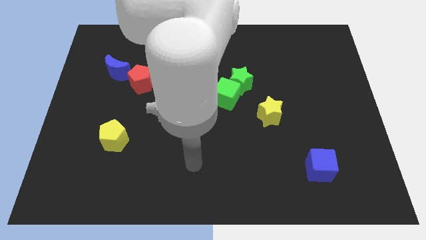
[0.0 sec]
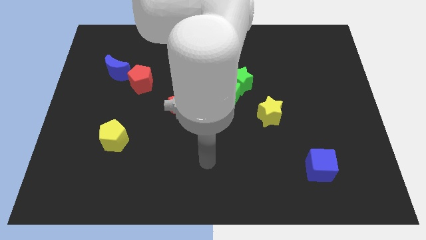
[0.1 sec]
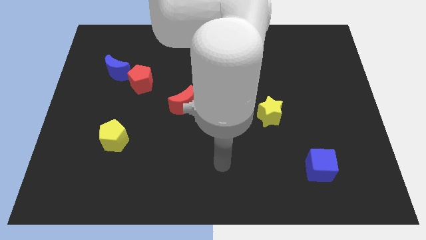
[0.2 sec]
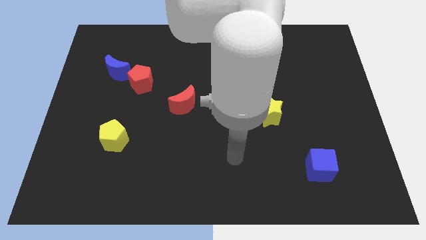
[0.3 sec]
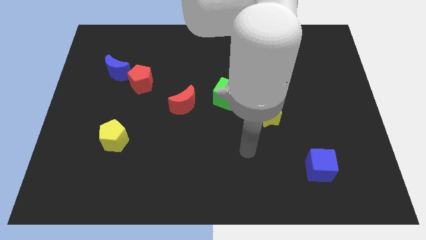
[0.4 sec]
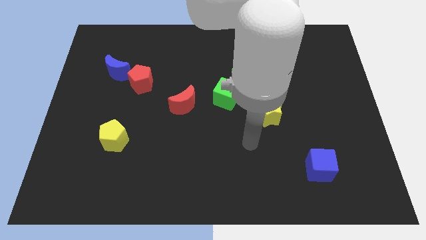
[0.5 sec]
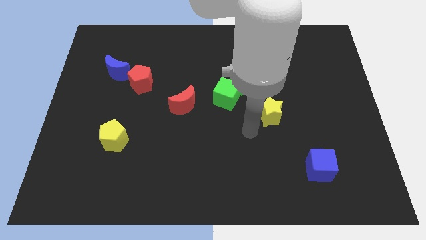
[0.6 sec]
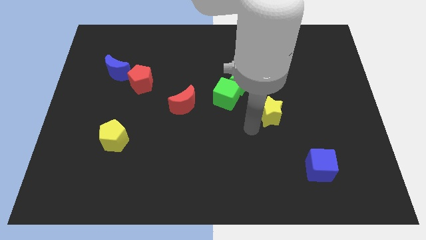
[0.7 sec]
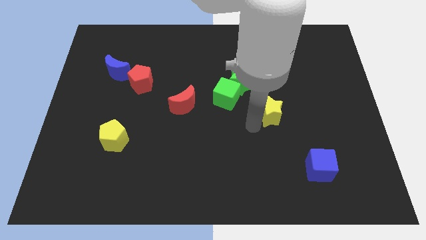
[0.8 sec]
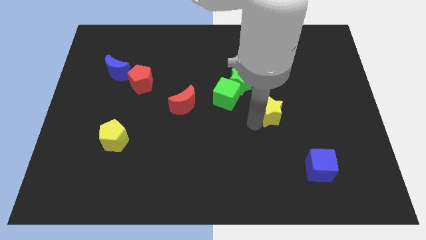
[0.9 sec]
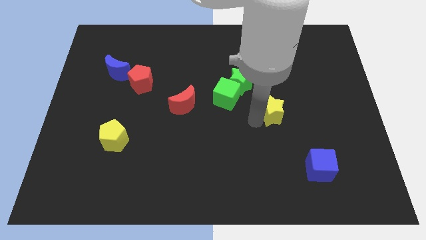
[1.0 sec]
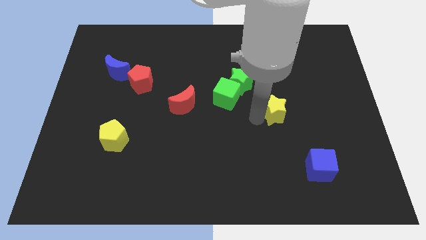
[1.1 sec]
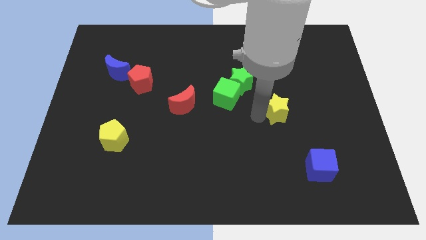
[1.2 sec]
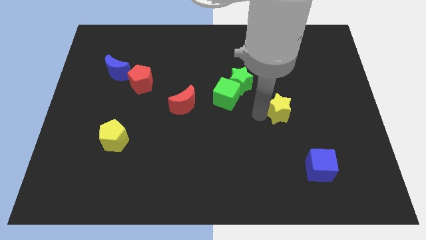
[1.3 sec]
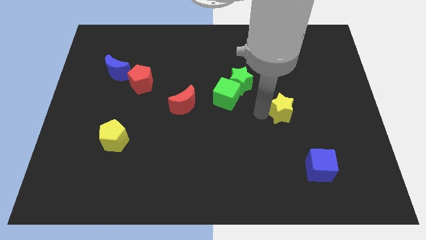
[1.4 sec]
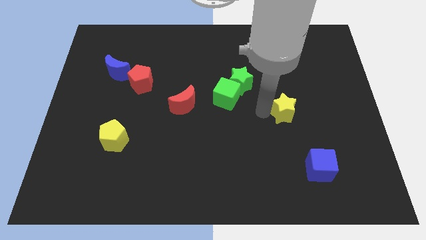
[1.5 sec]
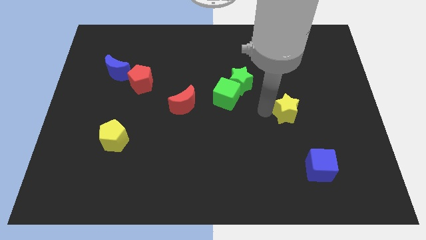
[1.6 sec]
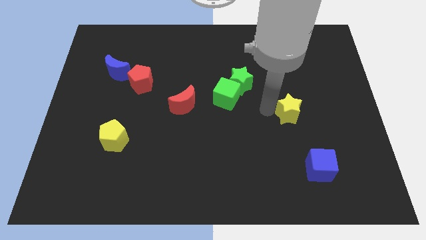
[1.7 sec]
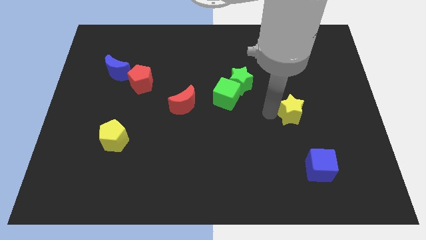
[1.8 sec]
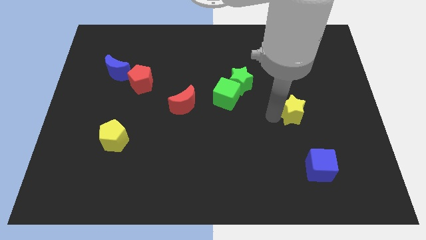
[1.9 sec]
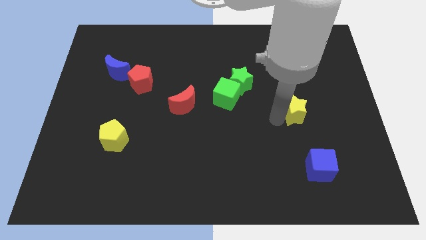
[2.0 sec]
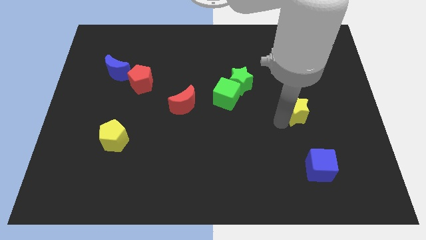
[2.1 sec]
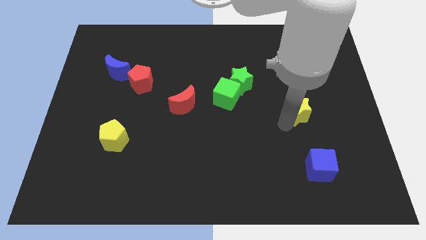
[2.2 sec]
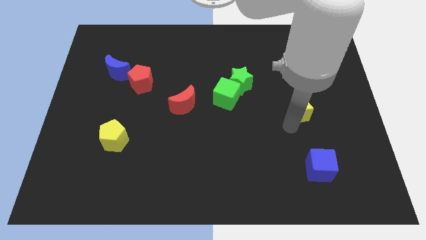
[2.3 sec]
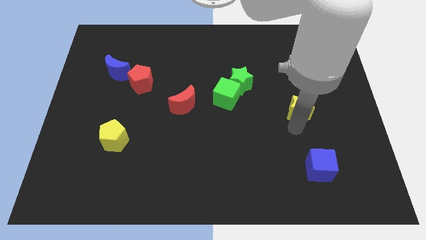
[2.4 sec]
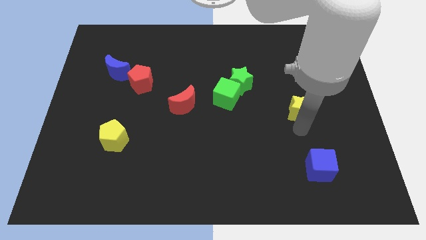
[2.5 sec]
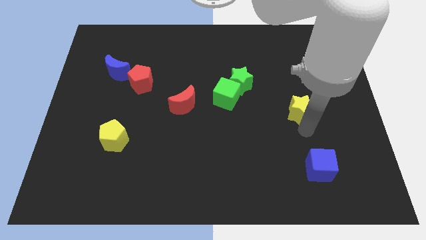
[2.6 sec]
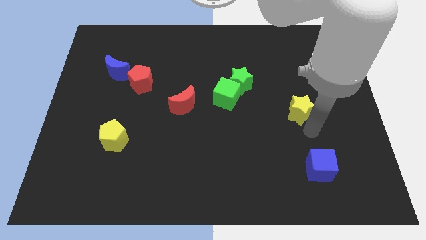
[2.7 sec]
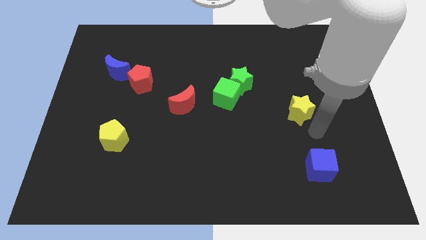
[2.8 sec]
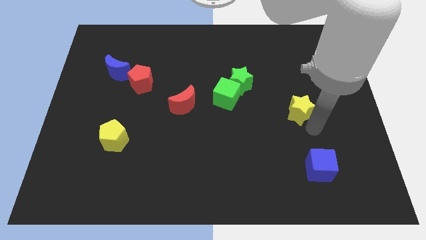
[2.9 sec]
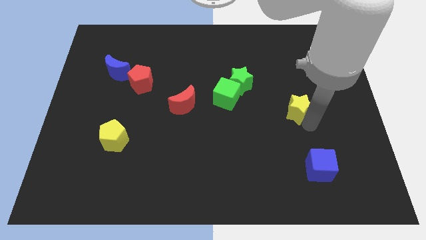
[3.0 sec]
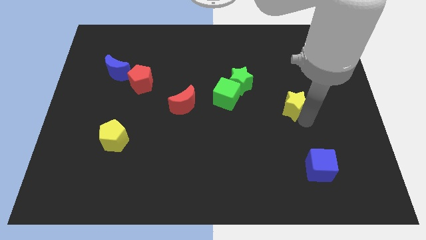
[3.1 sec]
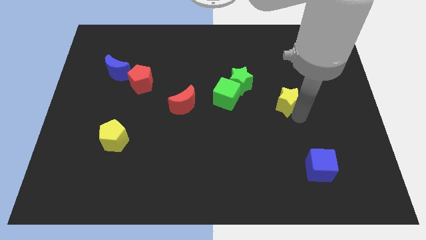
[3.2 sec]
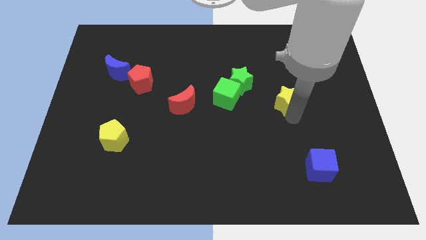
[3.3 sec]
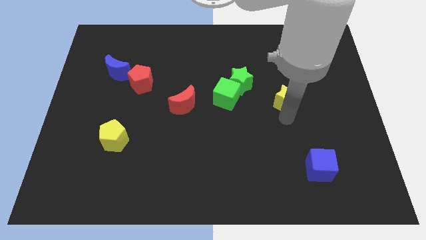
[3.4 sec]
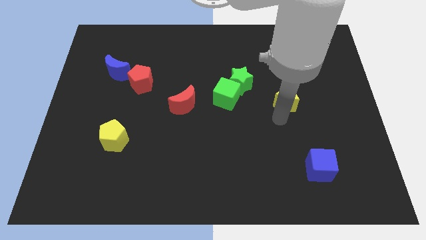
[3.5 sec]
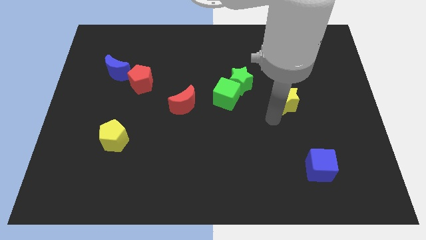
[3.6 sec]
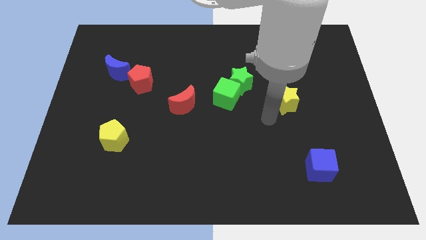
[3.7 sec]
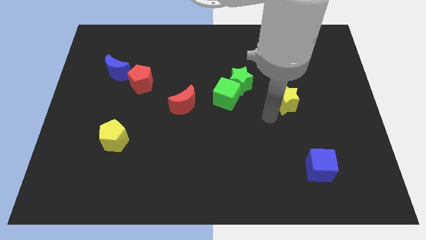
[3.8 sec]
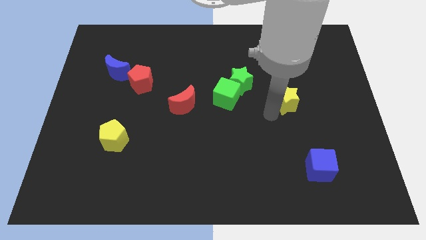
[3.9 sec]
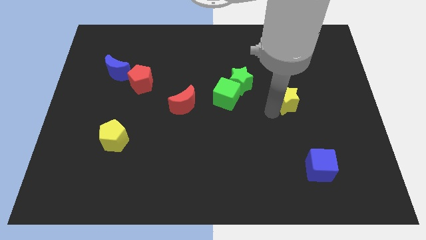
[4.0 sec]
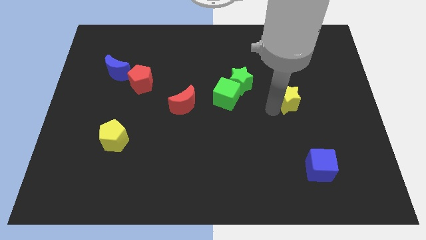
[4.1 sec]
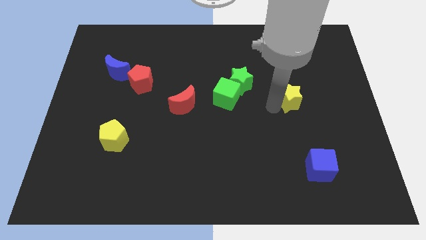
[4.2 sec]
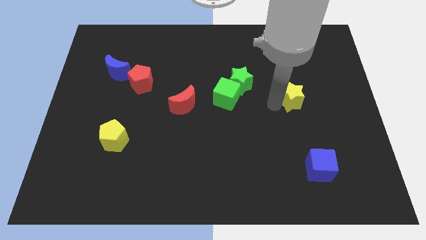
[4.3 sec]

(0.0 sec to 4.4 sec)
push the yellow star slightly up and right diagonally

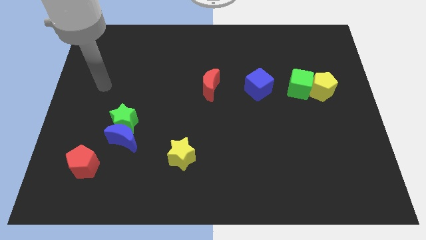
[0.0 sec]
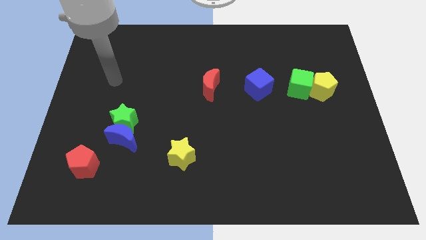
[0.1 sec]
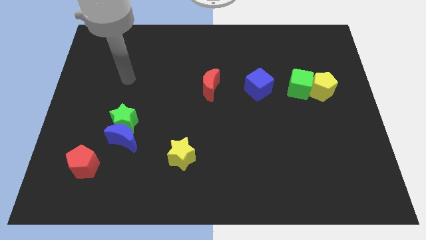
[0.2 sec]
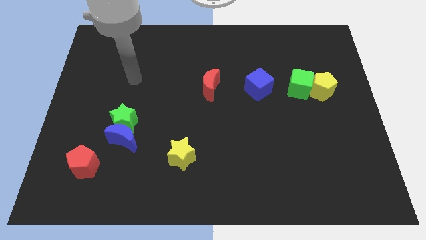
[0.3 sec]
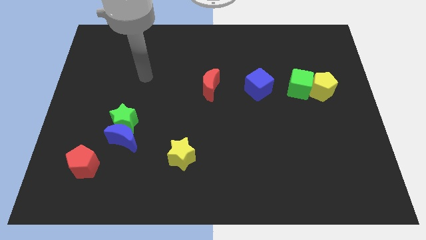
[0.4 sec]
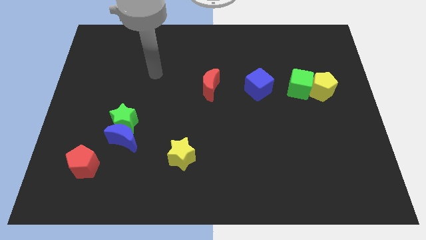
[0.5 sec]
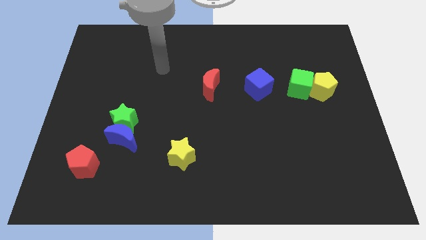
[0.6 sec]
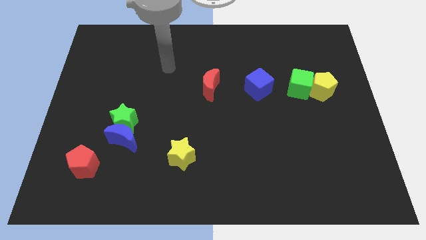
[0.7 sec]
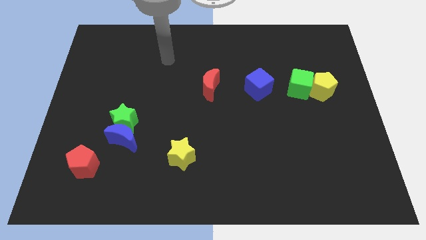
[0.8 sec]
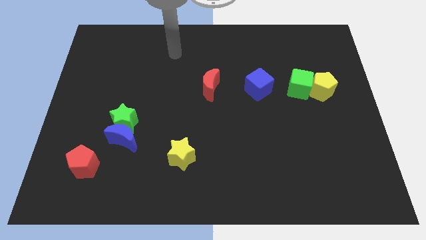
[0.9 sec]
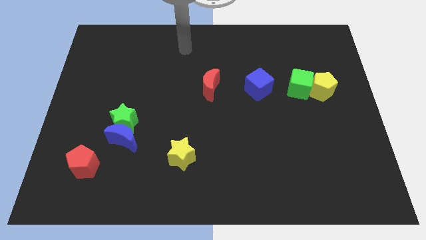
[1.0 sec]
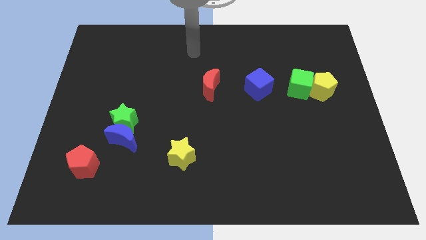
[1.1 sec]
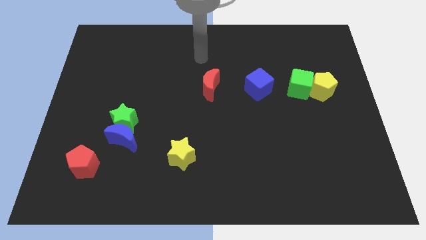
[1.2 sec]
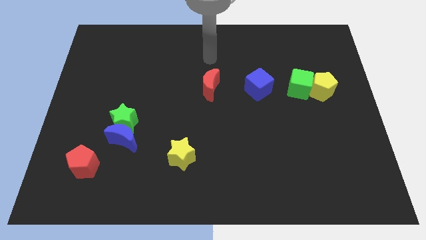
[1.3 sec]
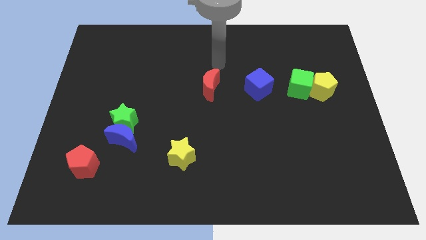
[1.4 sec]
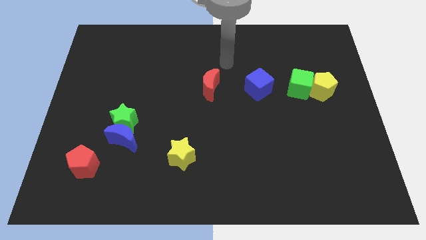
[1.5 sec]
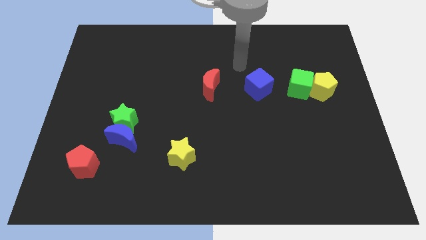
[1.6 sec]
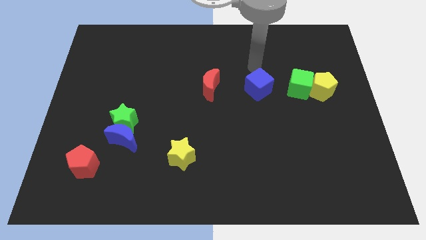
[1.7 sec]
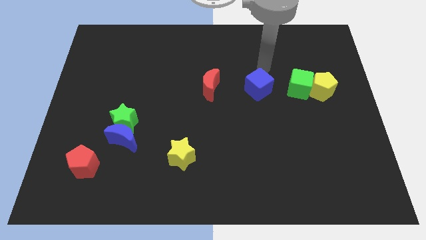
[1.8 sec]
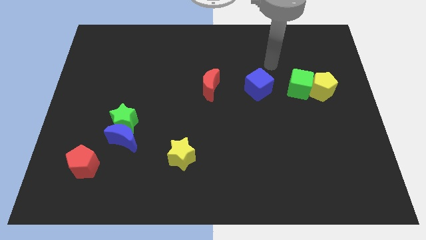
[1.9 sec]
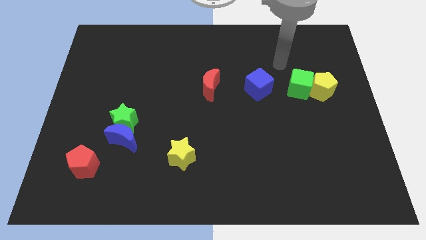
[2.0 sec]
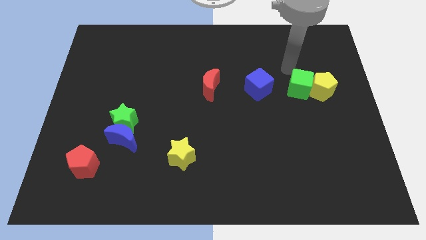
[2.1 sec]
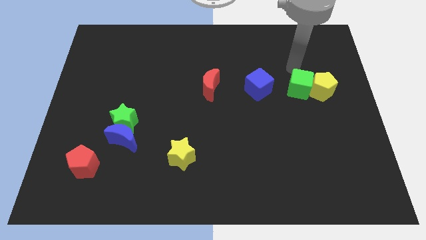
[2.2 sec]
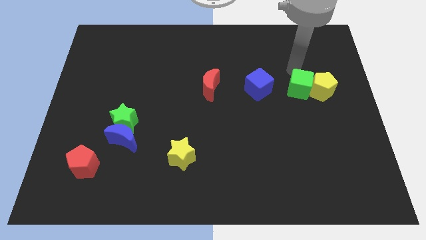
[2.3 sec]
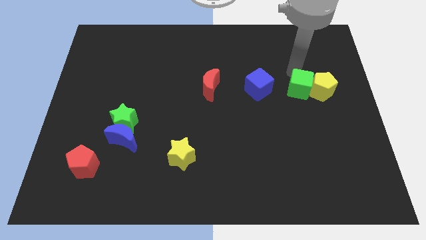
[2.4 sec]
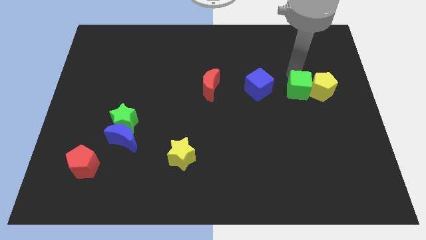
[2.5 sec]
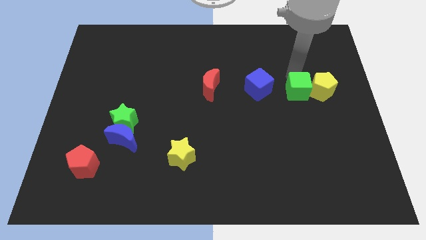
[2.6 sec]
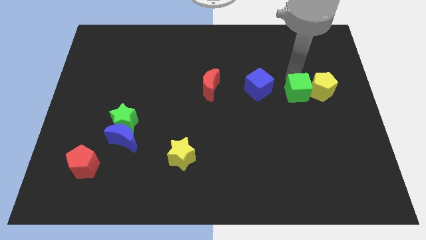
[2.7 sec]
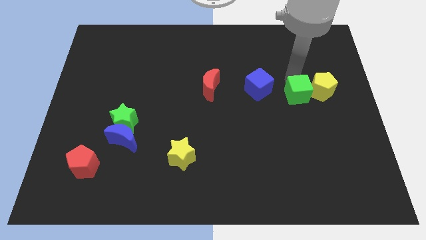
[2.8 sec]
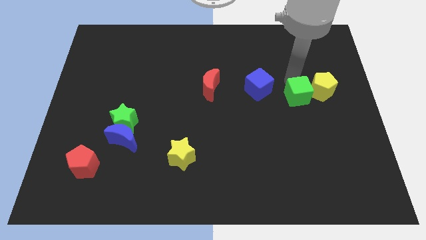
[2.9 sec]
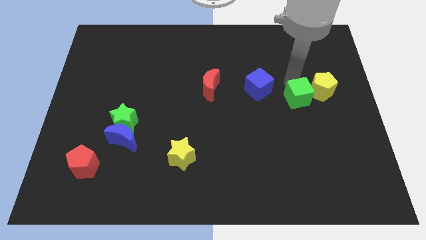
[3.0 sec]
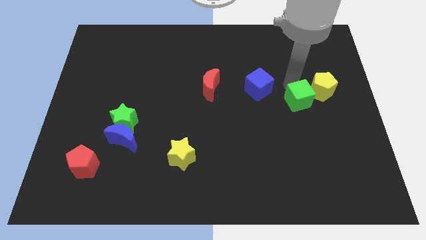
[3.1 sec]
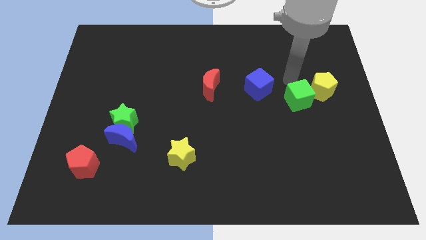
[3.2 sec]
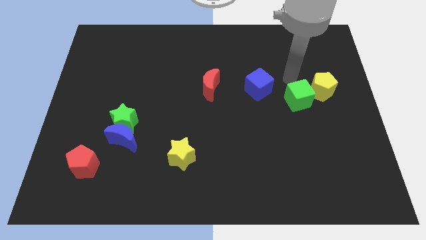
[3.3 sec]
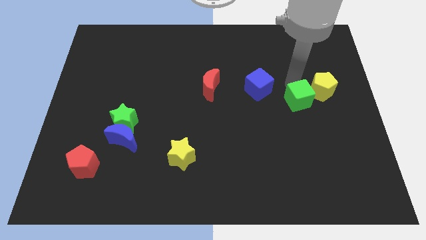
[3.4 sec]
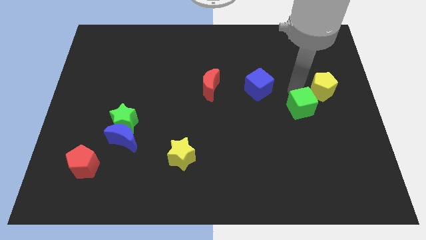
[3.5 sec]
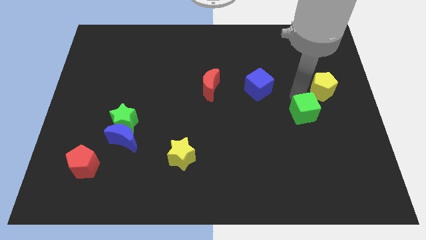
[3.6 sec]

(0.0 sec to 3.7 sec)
slide the green cube slightly down
